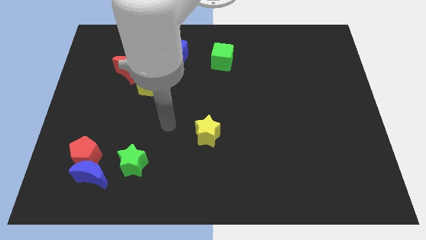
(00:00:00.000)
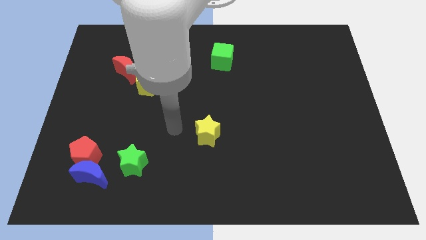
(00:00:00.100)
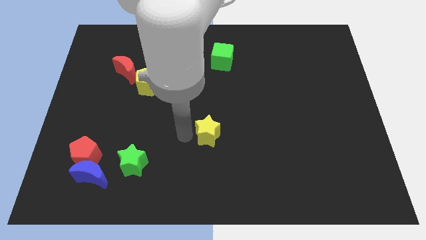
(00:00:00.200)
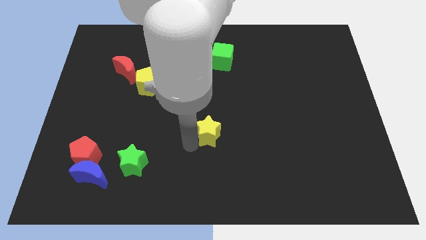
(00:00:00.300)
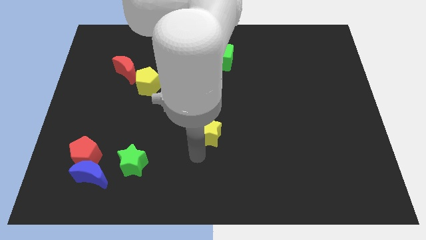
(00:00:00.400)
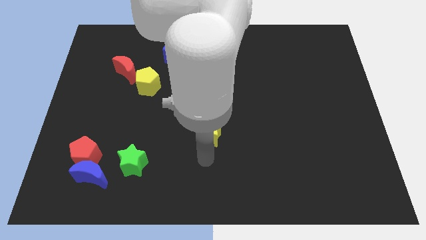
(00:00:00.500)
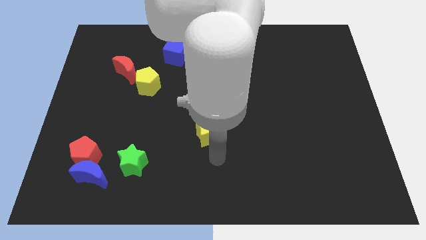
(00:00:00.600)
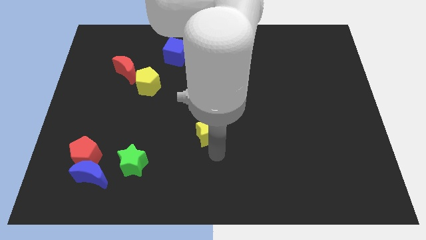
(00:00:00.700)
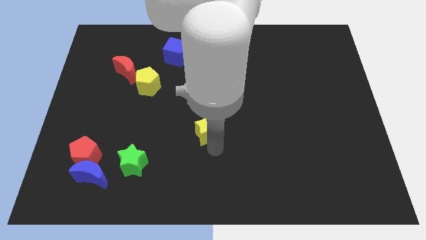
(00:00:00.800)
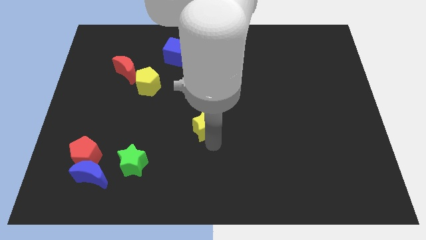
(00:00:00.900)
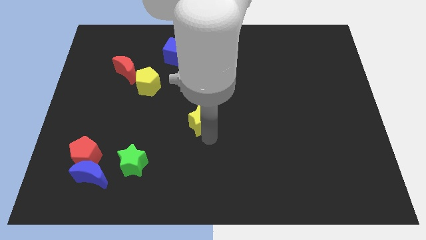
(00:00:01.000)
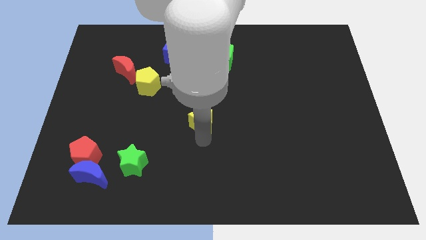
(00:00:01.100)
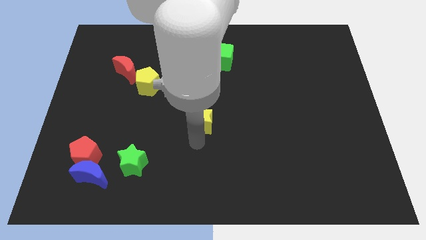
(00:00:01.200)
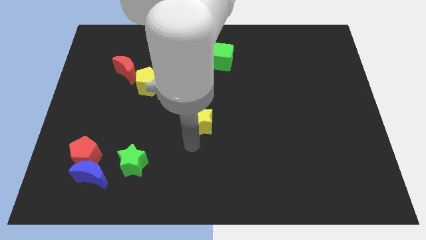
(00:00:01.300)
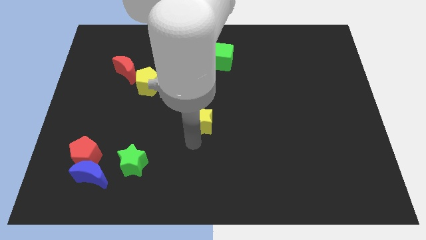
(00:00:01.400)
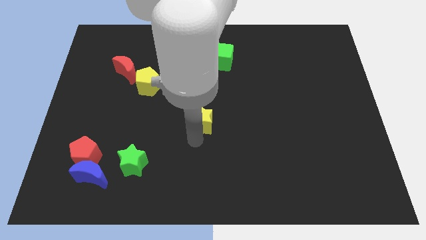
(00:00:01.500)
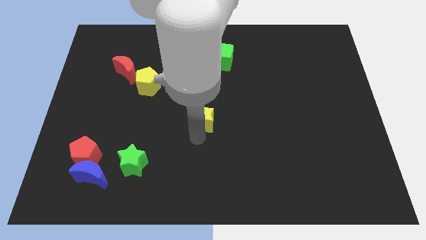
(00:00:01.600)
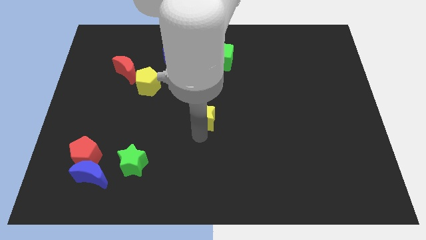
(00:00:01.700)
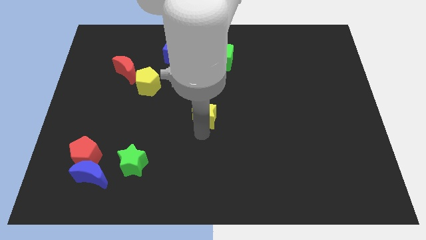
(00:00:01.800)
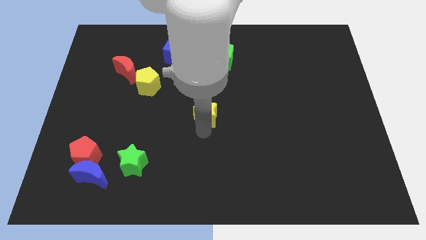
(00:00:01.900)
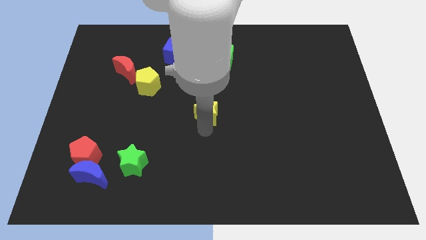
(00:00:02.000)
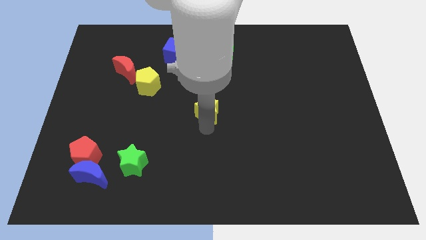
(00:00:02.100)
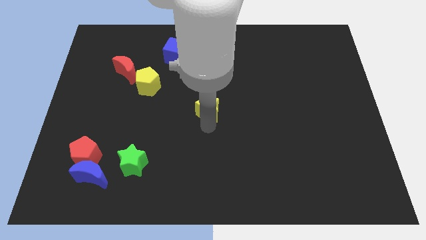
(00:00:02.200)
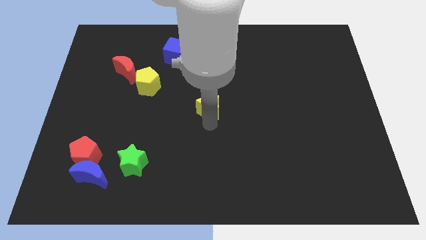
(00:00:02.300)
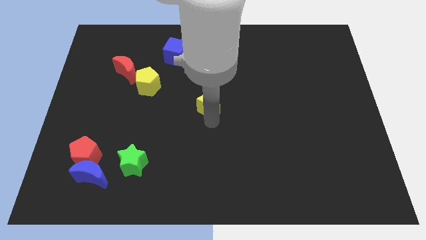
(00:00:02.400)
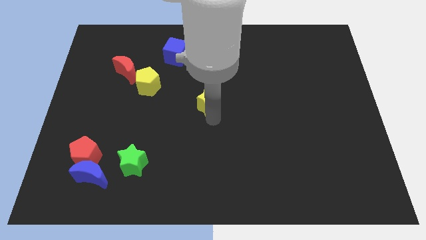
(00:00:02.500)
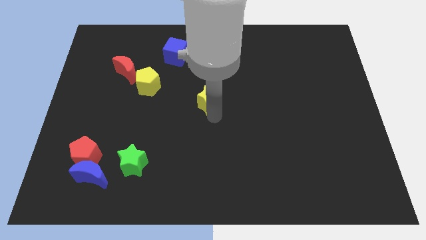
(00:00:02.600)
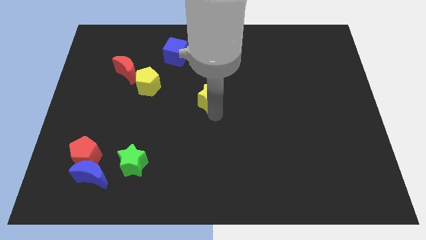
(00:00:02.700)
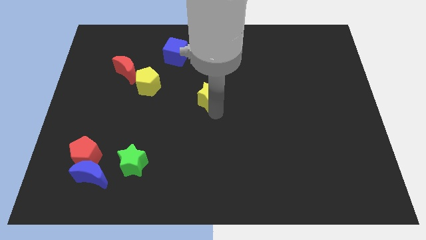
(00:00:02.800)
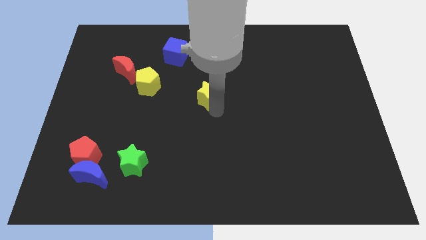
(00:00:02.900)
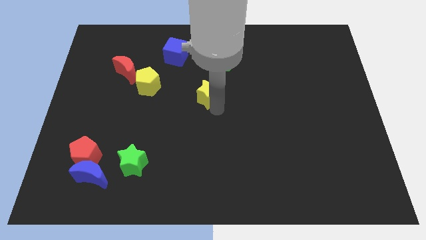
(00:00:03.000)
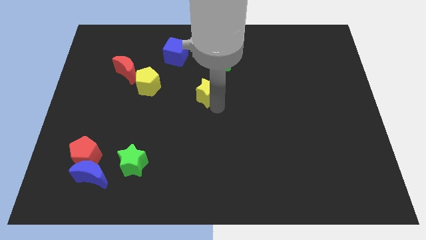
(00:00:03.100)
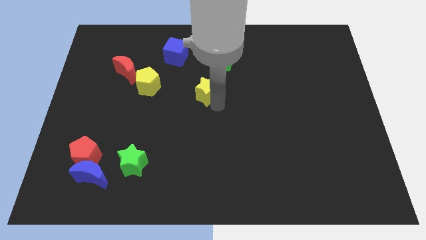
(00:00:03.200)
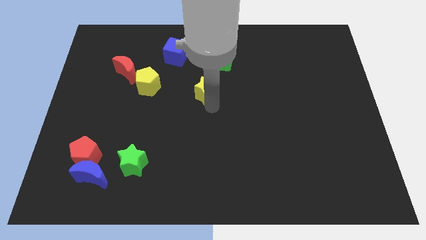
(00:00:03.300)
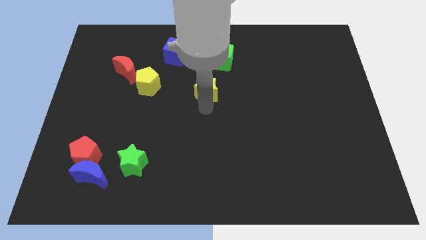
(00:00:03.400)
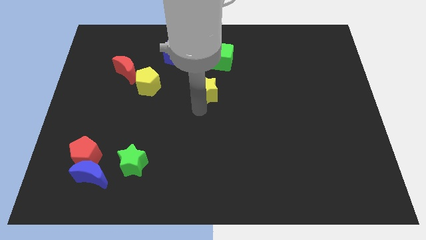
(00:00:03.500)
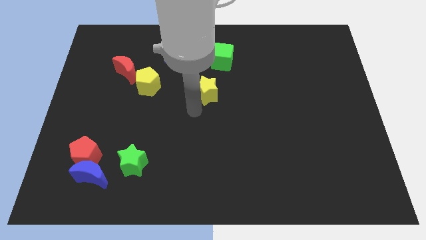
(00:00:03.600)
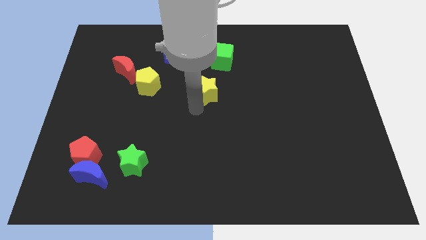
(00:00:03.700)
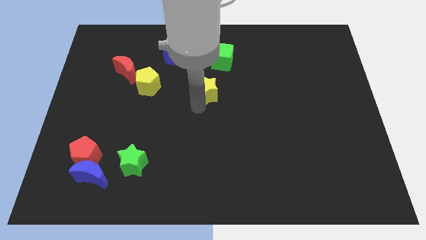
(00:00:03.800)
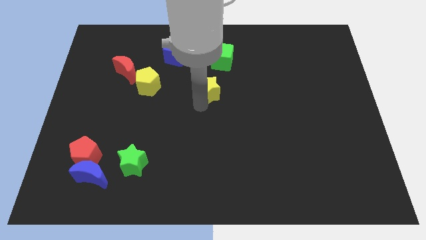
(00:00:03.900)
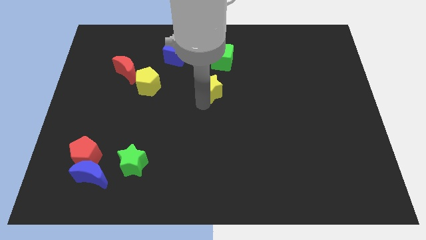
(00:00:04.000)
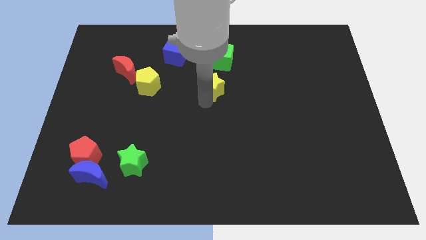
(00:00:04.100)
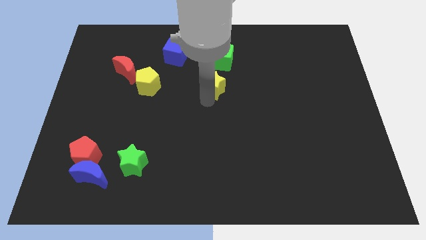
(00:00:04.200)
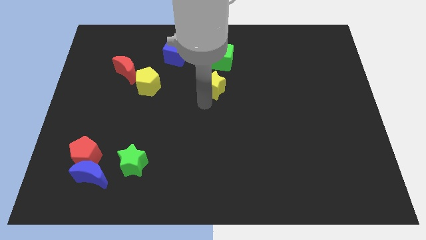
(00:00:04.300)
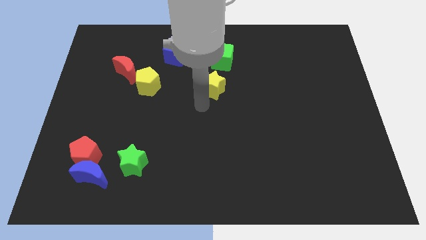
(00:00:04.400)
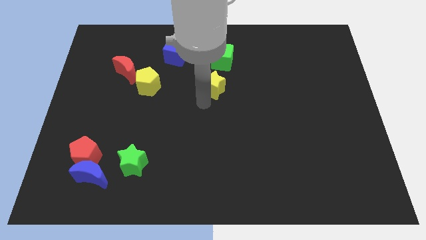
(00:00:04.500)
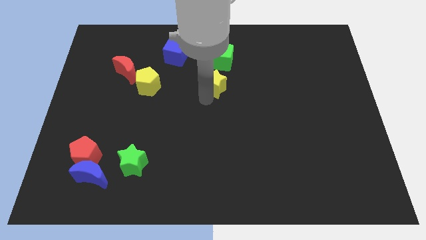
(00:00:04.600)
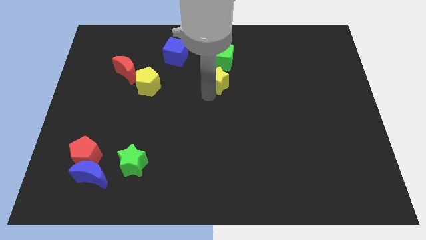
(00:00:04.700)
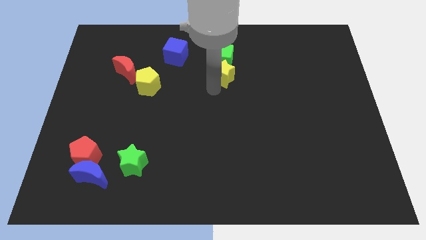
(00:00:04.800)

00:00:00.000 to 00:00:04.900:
slide the yellow star close to the green cube

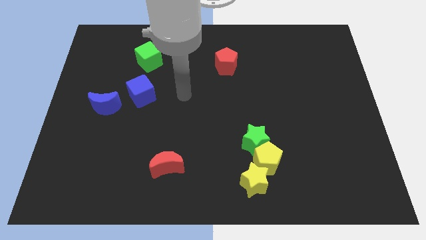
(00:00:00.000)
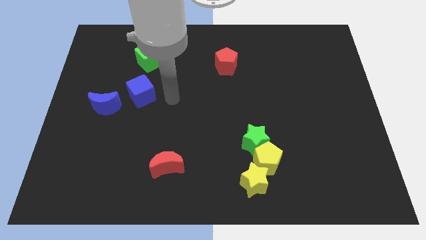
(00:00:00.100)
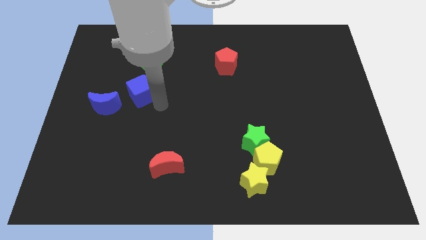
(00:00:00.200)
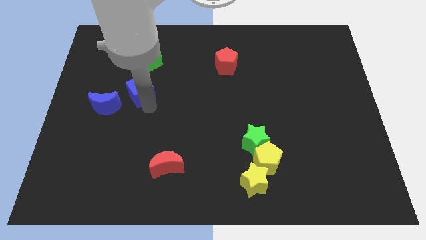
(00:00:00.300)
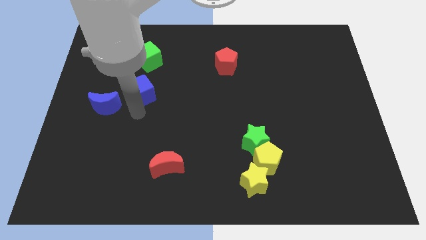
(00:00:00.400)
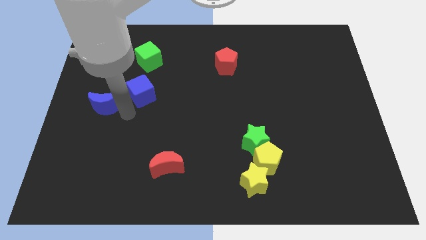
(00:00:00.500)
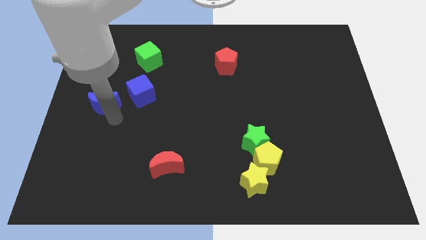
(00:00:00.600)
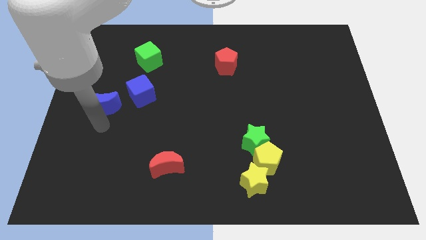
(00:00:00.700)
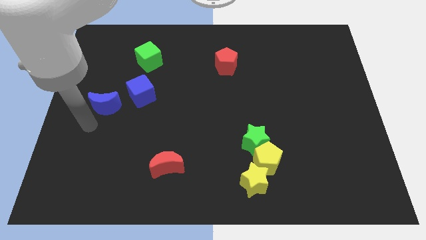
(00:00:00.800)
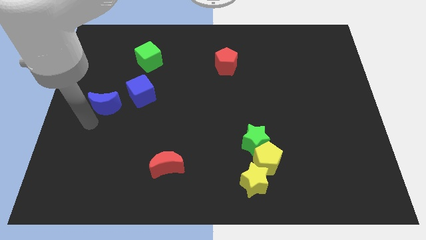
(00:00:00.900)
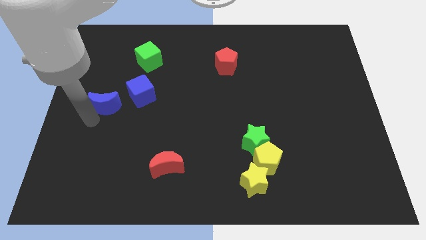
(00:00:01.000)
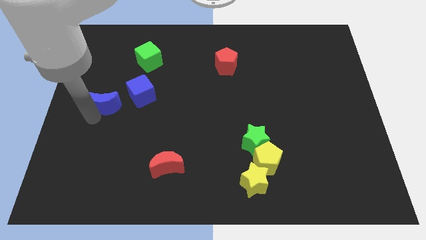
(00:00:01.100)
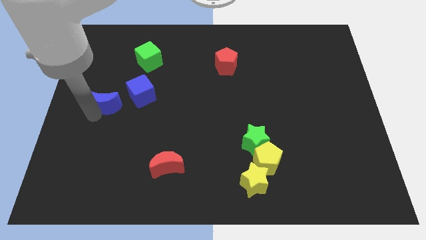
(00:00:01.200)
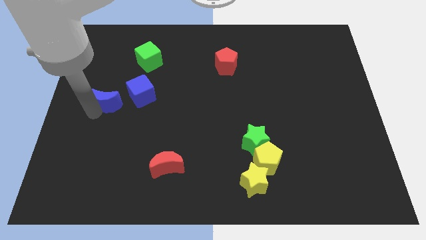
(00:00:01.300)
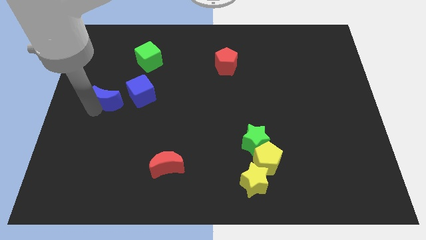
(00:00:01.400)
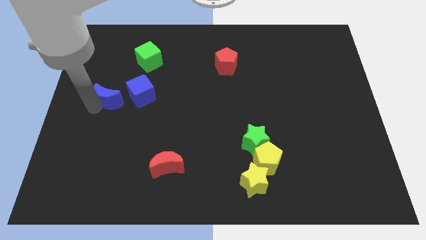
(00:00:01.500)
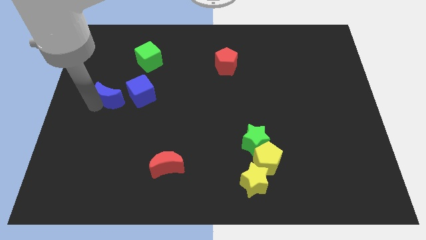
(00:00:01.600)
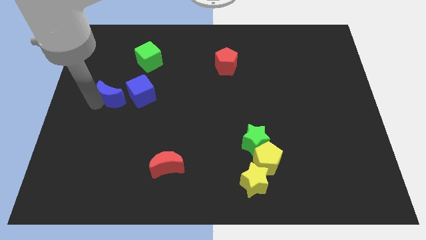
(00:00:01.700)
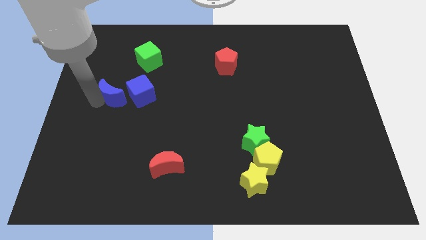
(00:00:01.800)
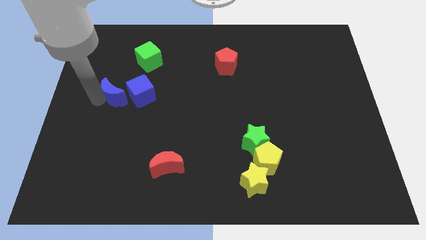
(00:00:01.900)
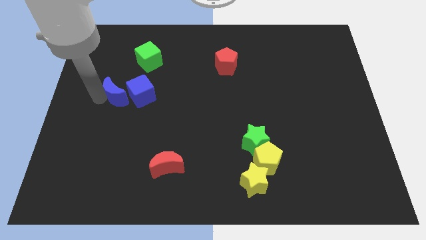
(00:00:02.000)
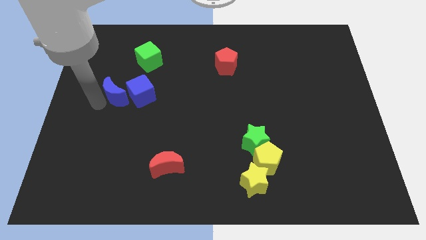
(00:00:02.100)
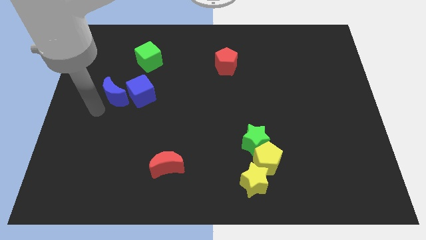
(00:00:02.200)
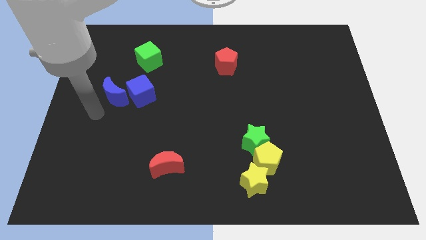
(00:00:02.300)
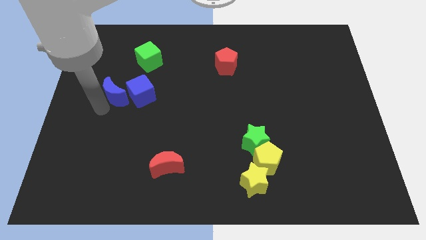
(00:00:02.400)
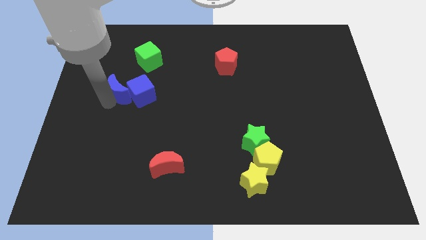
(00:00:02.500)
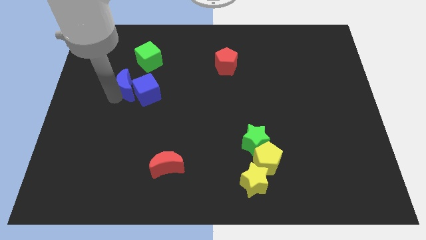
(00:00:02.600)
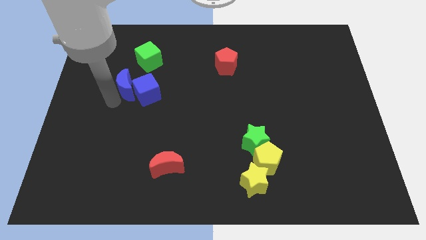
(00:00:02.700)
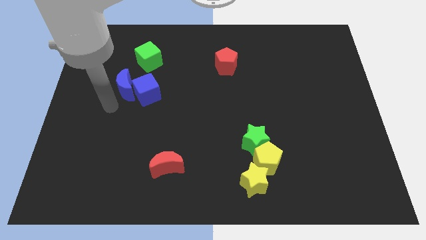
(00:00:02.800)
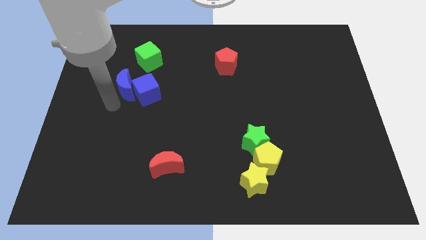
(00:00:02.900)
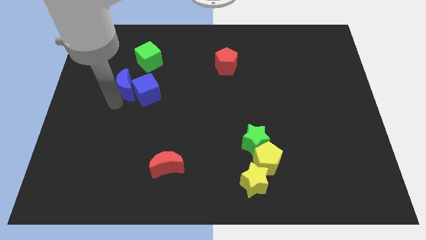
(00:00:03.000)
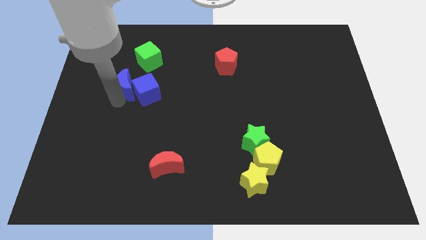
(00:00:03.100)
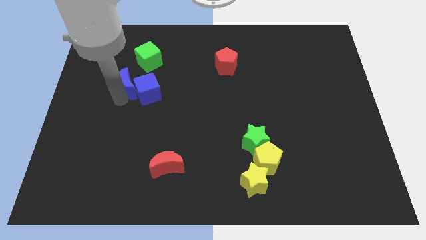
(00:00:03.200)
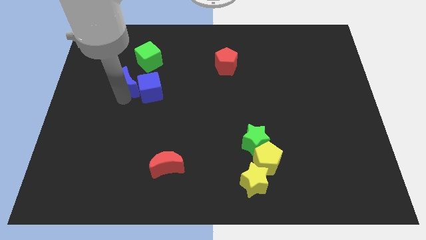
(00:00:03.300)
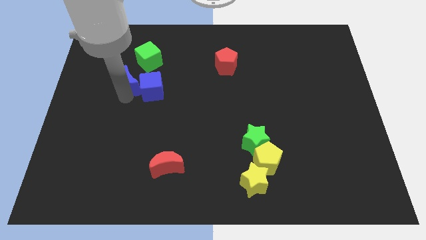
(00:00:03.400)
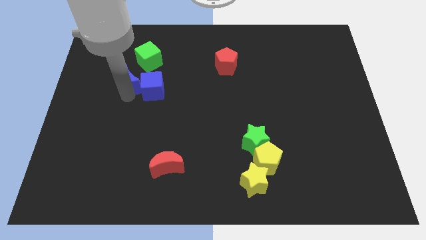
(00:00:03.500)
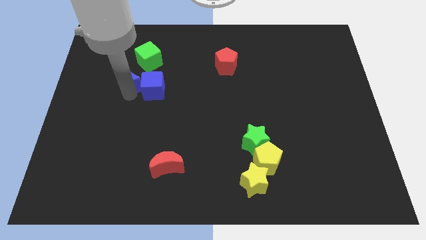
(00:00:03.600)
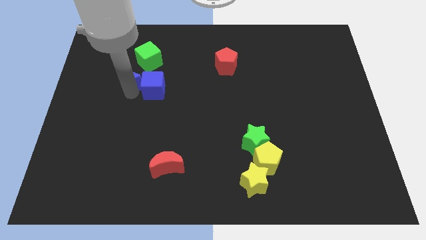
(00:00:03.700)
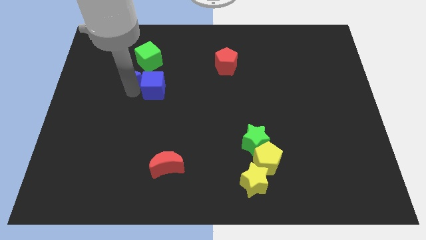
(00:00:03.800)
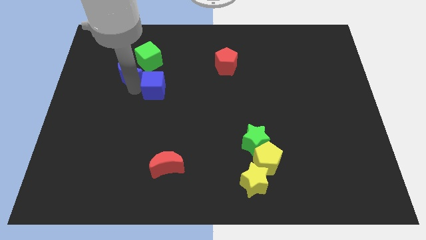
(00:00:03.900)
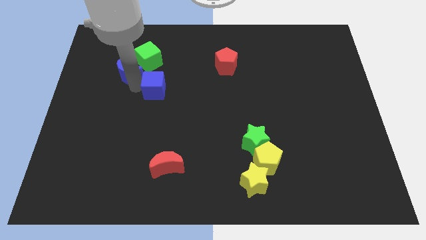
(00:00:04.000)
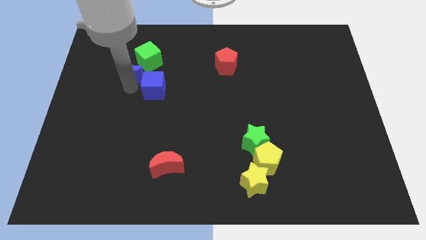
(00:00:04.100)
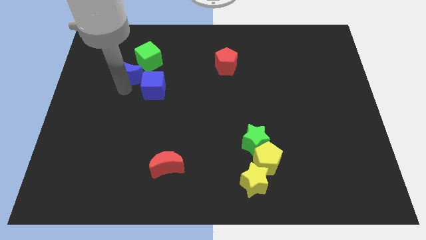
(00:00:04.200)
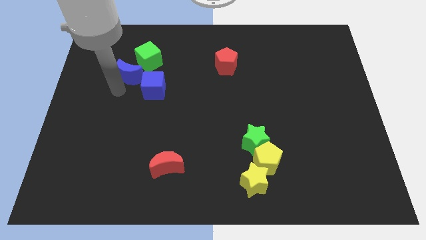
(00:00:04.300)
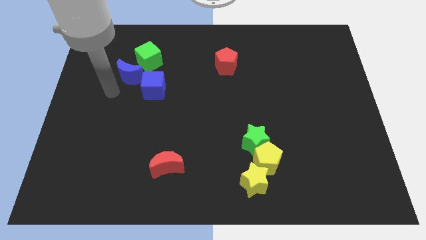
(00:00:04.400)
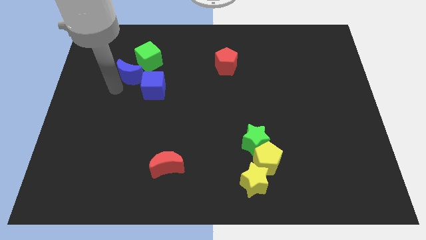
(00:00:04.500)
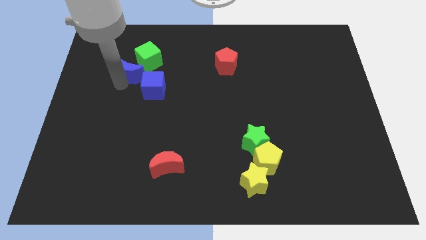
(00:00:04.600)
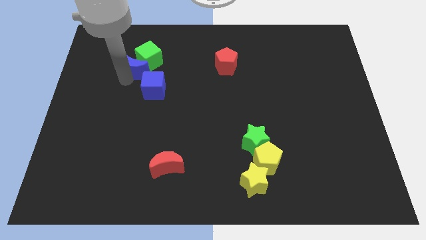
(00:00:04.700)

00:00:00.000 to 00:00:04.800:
move the blue moon towards the green cube
